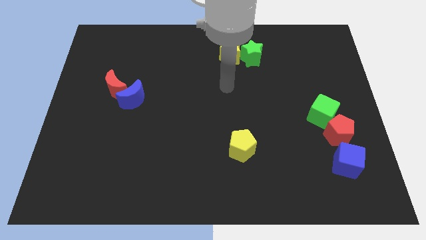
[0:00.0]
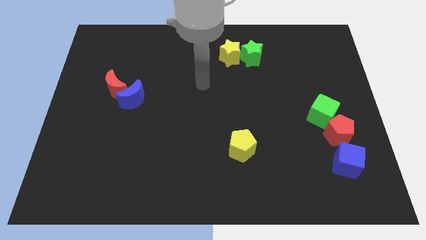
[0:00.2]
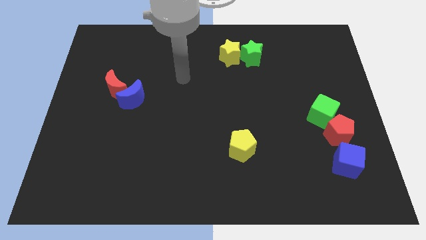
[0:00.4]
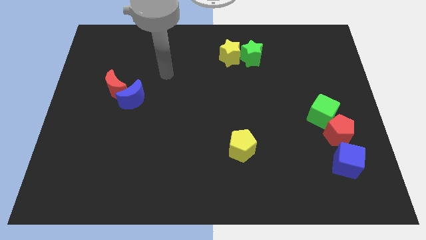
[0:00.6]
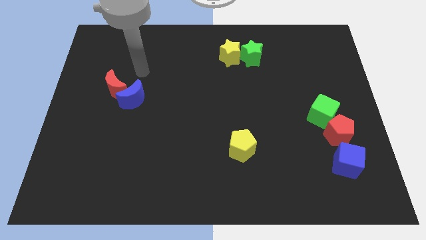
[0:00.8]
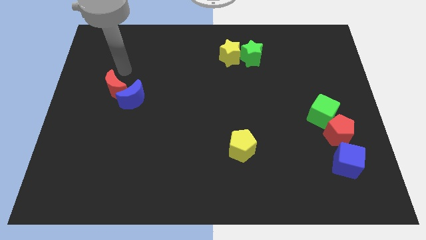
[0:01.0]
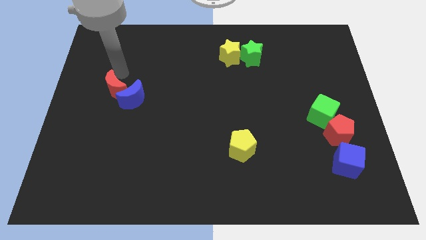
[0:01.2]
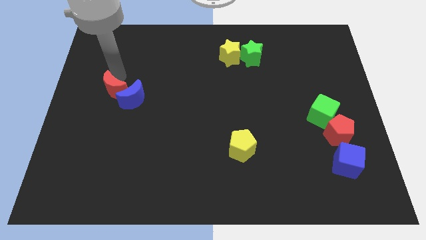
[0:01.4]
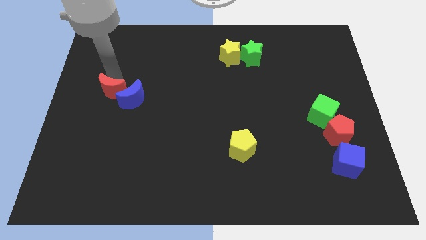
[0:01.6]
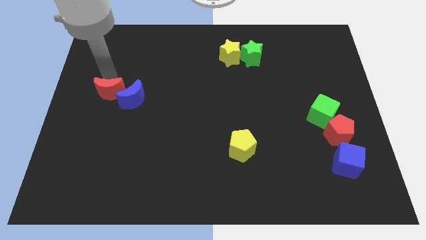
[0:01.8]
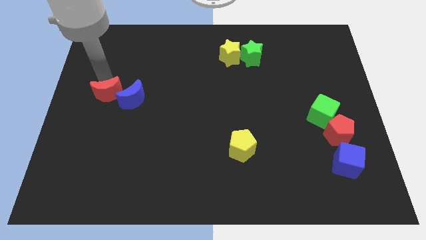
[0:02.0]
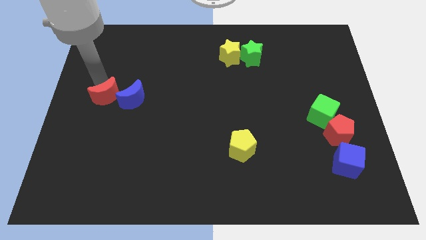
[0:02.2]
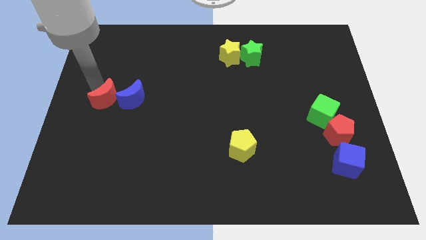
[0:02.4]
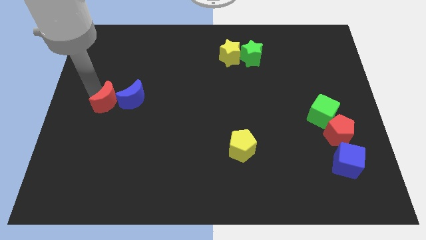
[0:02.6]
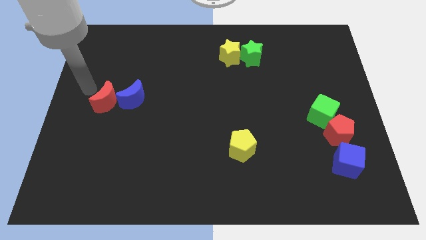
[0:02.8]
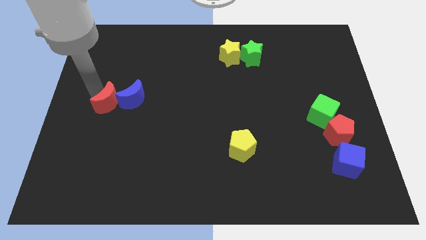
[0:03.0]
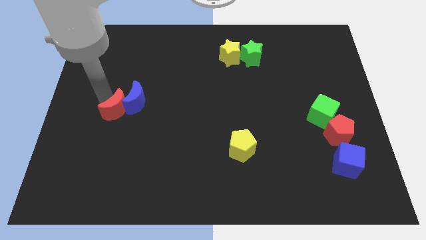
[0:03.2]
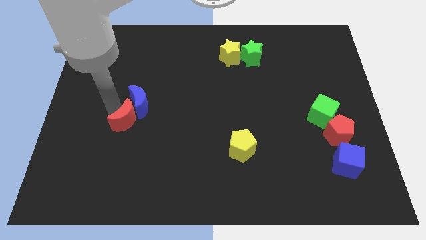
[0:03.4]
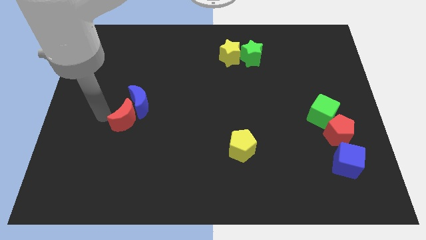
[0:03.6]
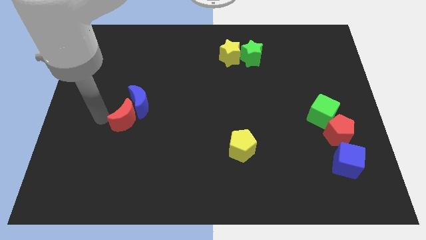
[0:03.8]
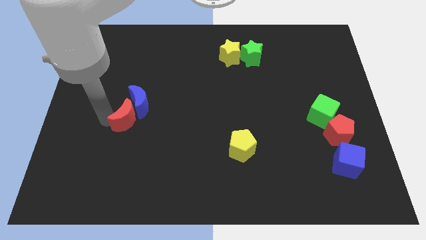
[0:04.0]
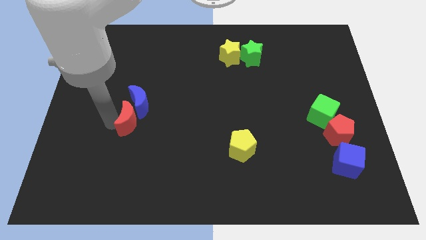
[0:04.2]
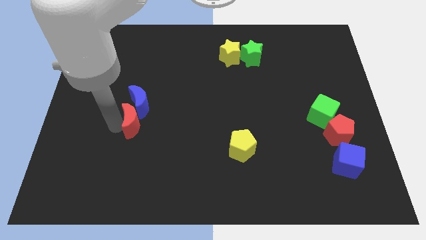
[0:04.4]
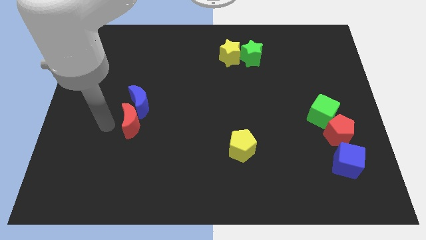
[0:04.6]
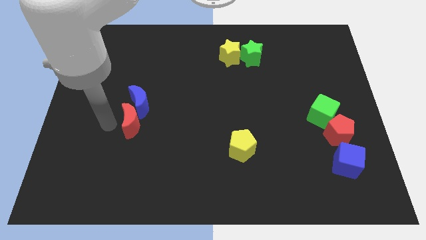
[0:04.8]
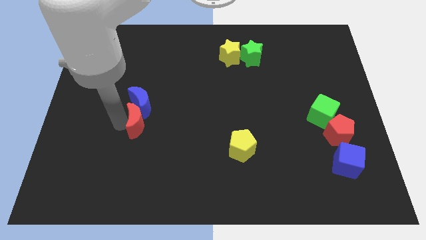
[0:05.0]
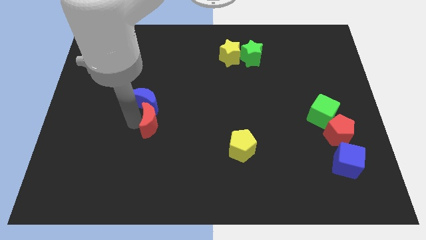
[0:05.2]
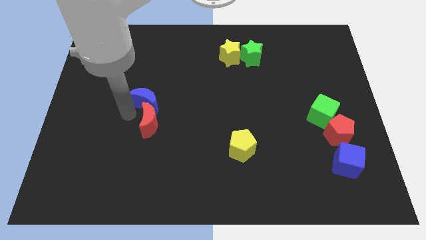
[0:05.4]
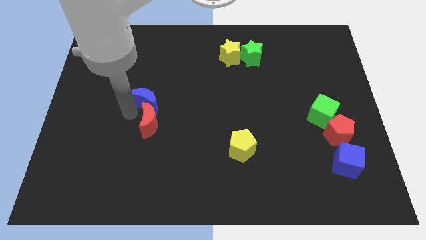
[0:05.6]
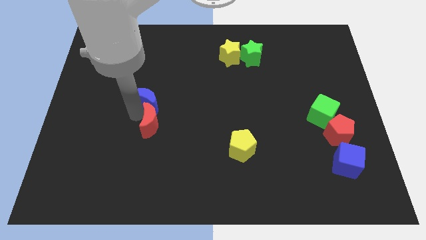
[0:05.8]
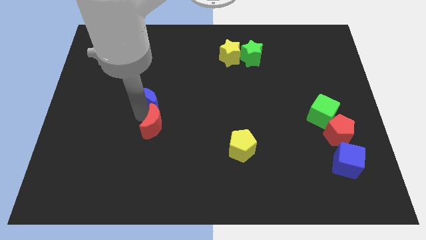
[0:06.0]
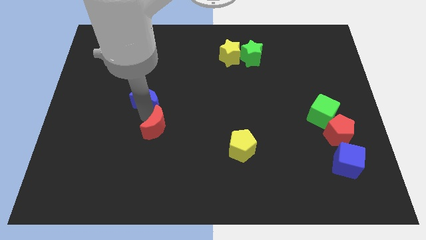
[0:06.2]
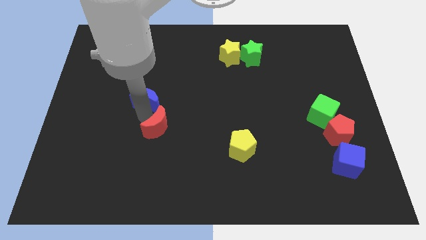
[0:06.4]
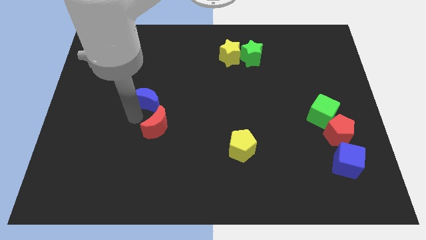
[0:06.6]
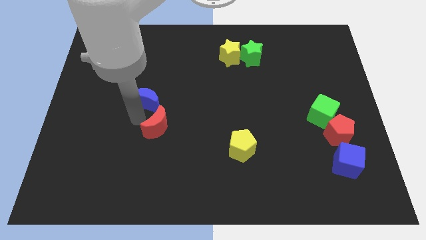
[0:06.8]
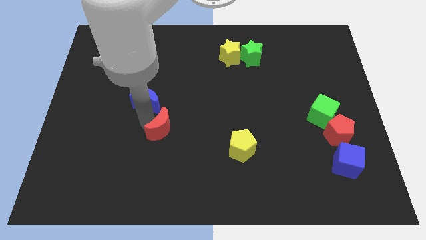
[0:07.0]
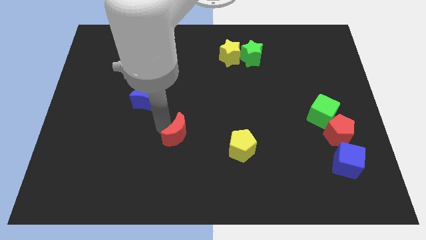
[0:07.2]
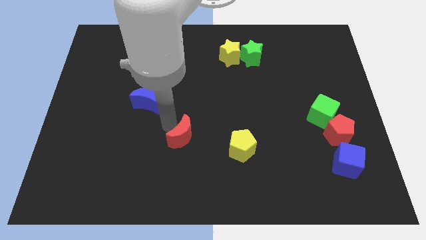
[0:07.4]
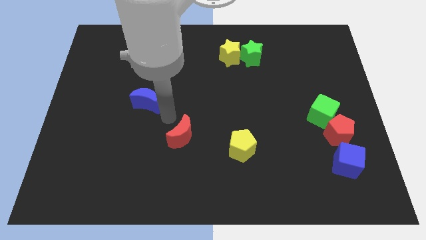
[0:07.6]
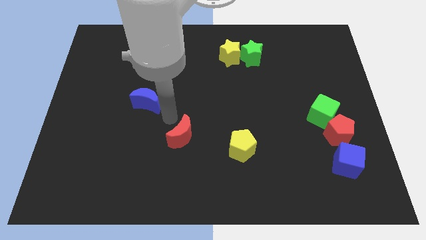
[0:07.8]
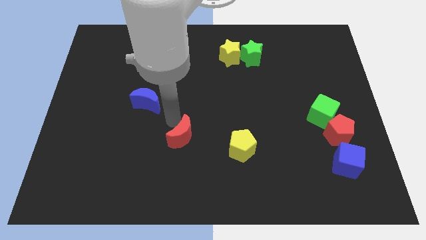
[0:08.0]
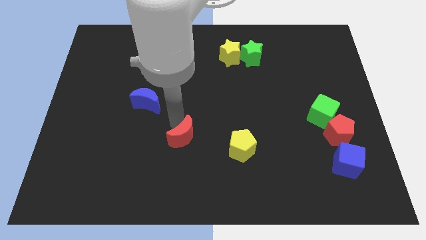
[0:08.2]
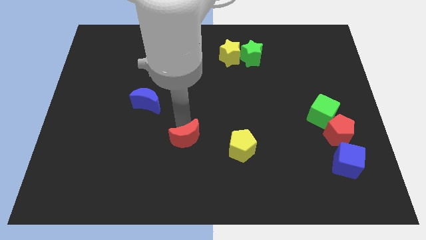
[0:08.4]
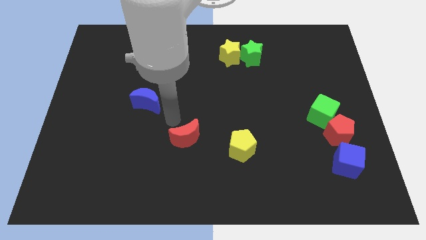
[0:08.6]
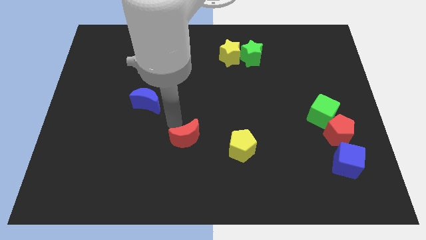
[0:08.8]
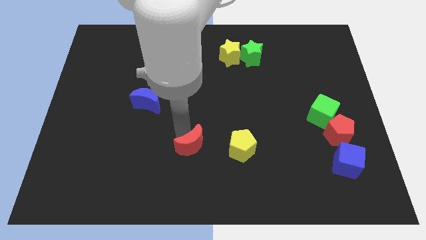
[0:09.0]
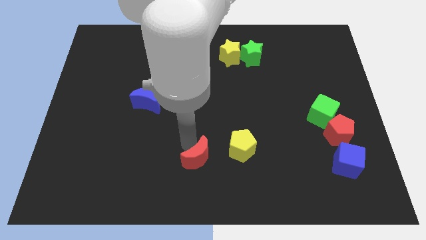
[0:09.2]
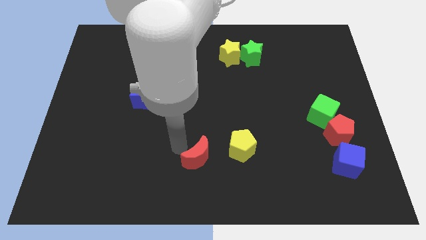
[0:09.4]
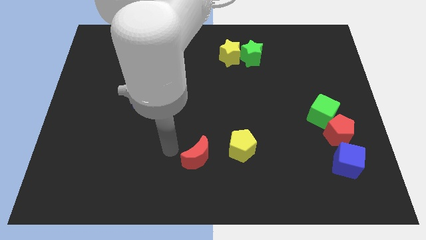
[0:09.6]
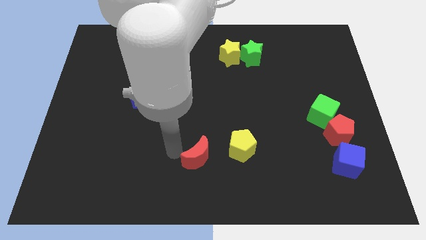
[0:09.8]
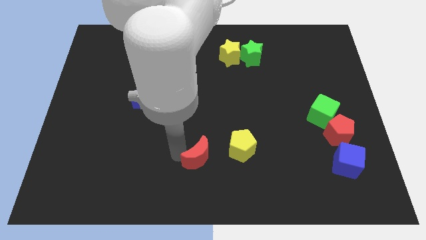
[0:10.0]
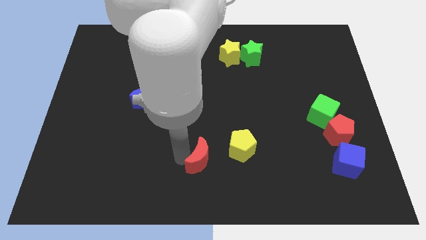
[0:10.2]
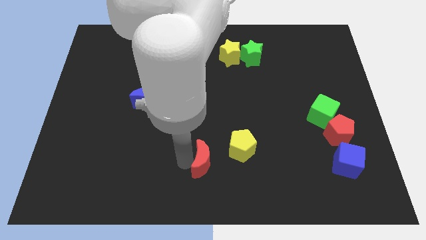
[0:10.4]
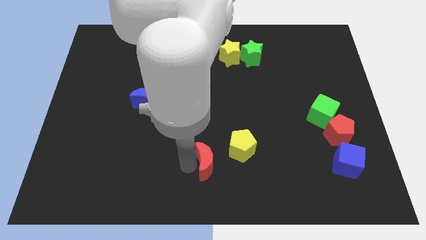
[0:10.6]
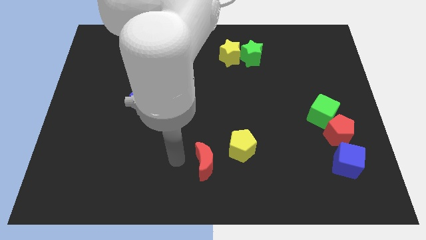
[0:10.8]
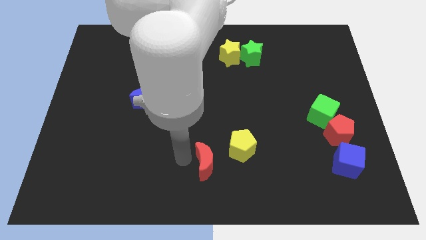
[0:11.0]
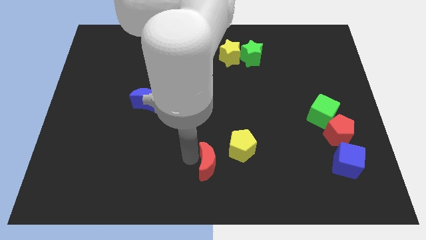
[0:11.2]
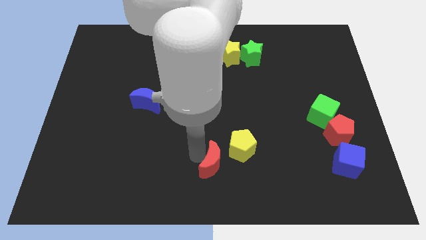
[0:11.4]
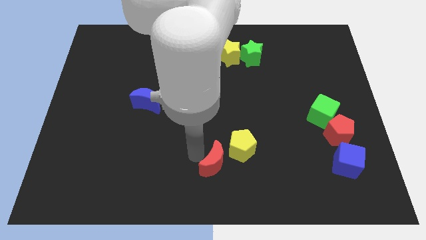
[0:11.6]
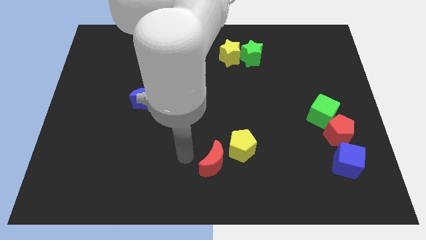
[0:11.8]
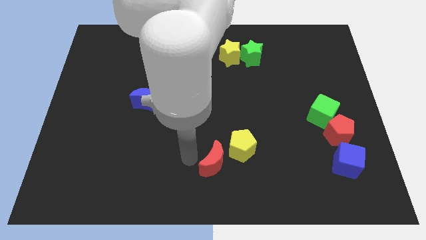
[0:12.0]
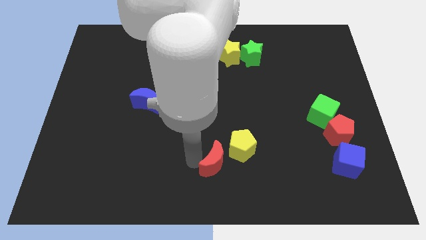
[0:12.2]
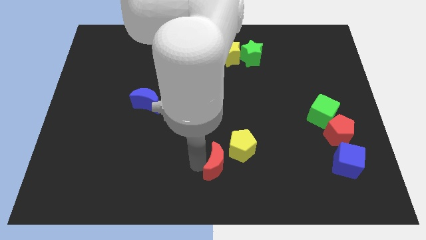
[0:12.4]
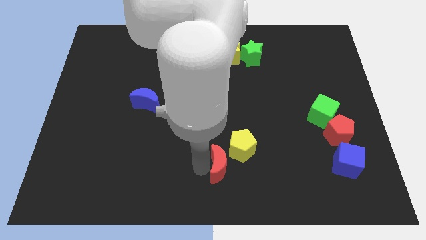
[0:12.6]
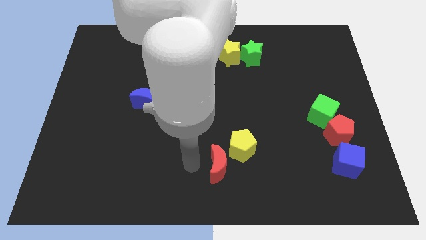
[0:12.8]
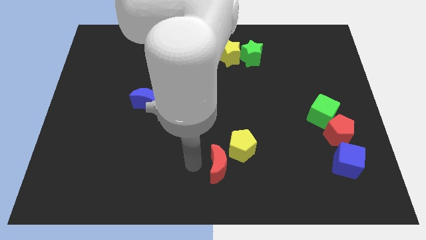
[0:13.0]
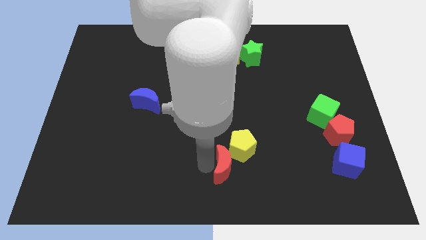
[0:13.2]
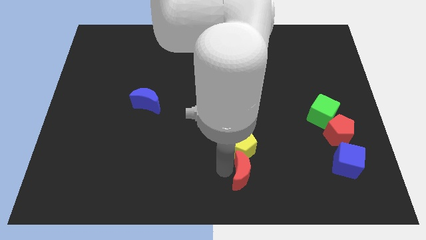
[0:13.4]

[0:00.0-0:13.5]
push the red moon to the bottom right of the yellow pentagon

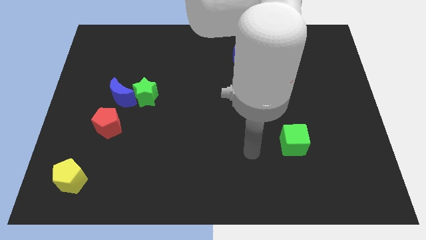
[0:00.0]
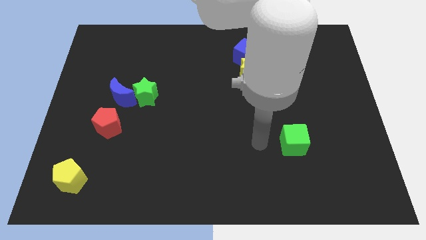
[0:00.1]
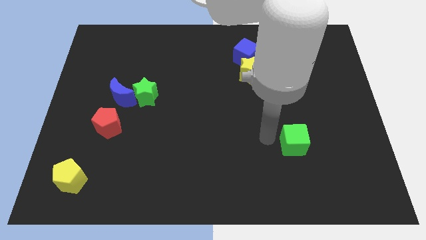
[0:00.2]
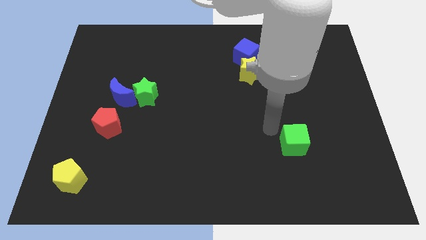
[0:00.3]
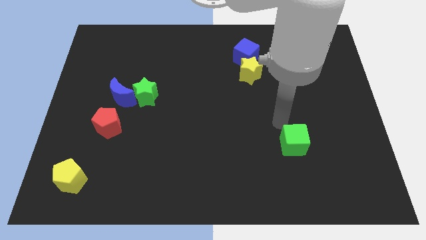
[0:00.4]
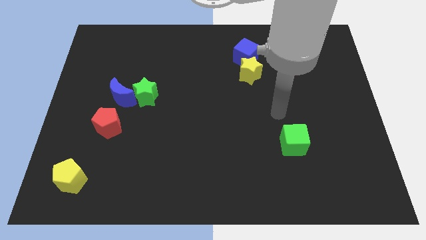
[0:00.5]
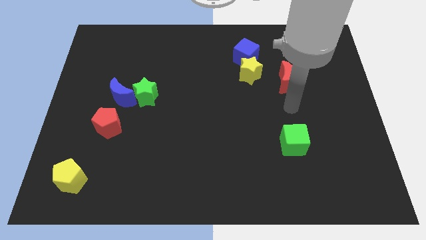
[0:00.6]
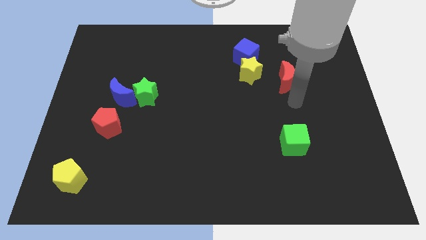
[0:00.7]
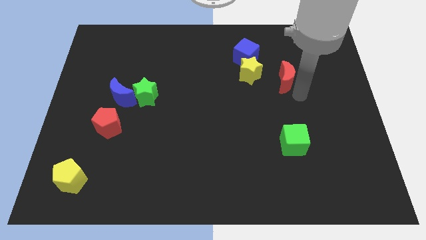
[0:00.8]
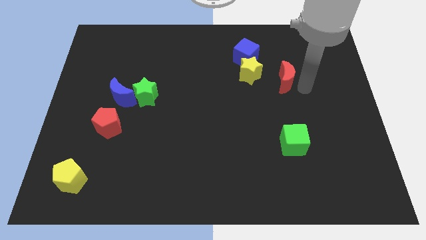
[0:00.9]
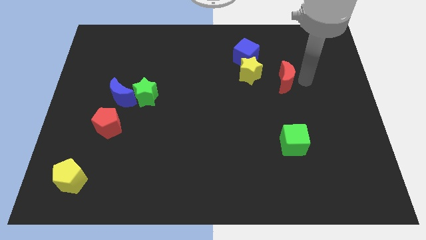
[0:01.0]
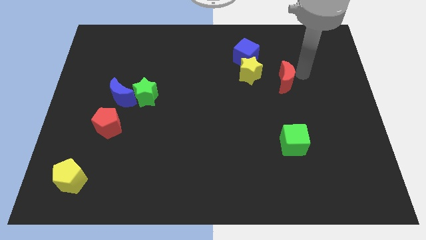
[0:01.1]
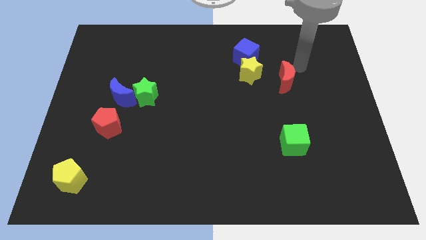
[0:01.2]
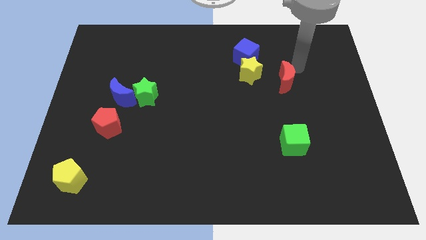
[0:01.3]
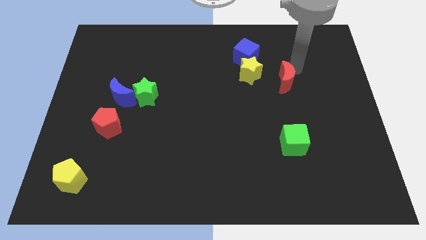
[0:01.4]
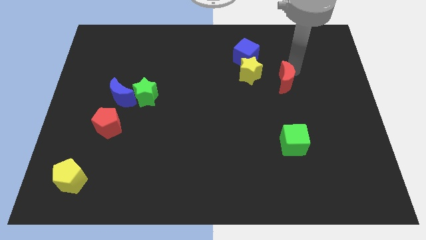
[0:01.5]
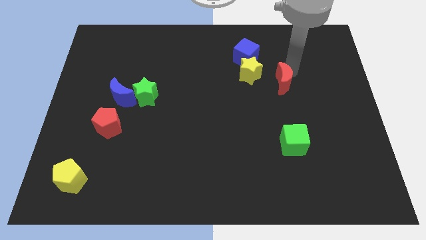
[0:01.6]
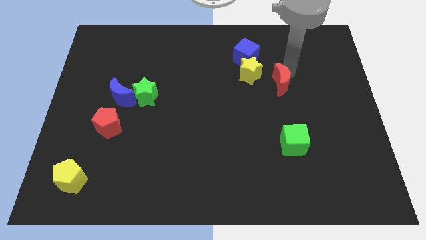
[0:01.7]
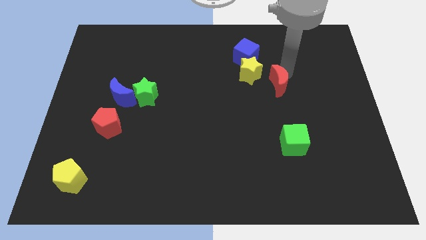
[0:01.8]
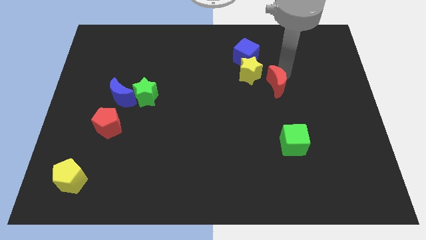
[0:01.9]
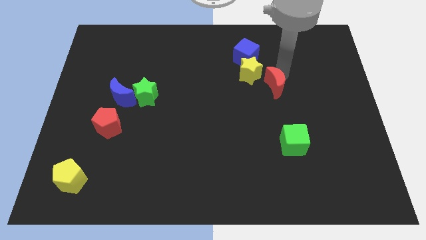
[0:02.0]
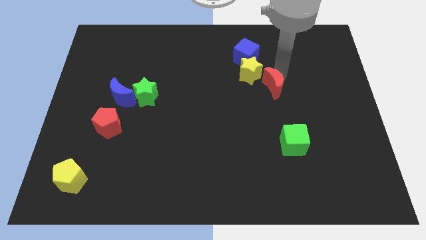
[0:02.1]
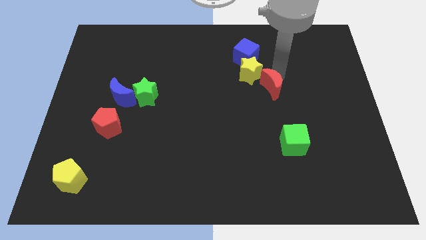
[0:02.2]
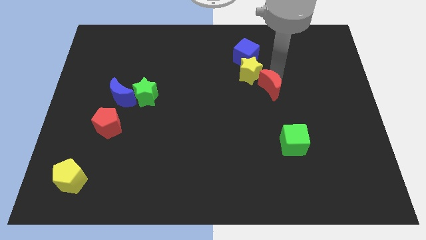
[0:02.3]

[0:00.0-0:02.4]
put the red moon to the bottom of the yellow star
